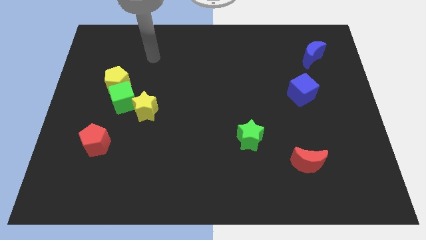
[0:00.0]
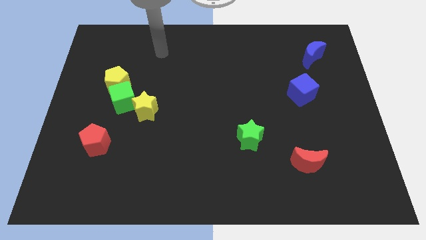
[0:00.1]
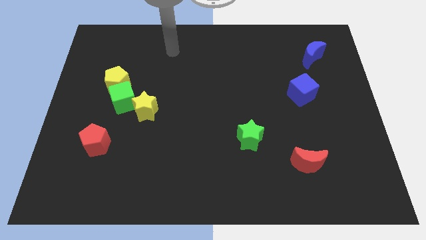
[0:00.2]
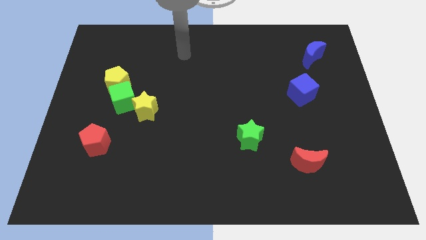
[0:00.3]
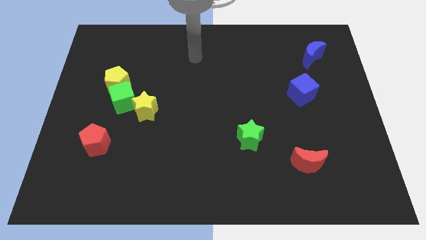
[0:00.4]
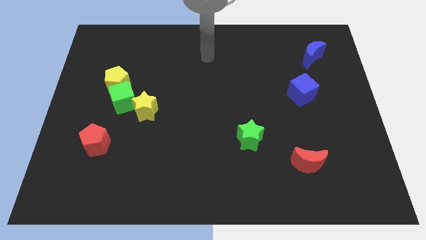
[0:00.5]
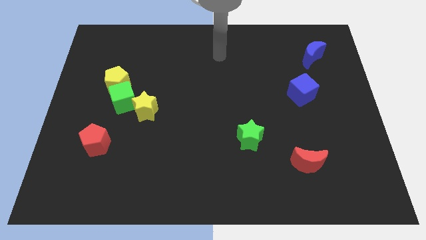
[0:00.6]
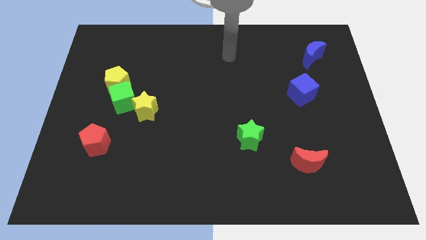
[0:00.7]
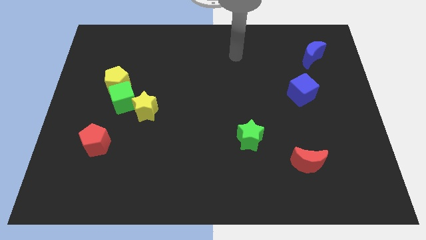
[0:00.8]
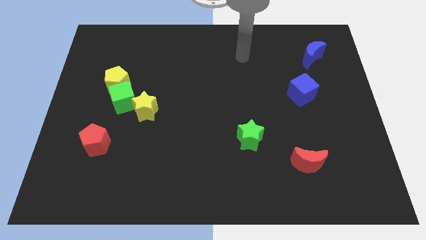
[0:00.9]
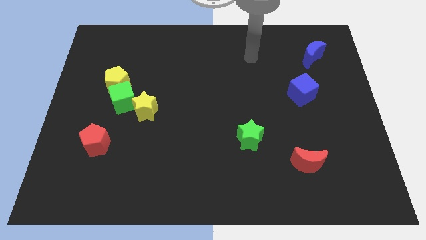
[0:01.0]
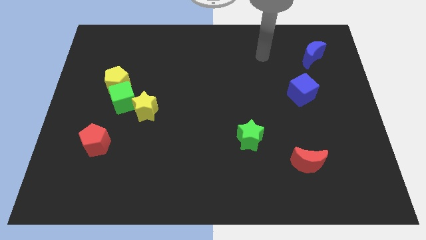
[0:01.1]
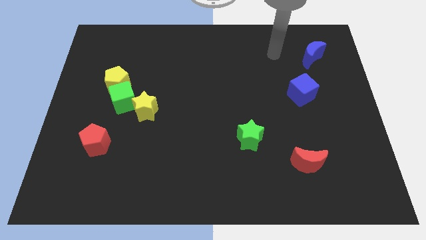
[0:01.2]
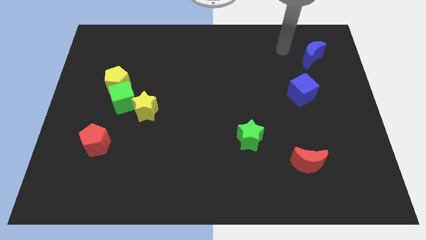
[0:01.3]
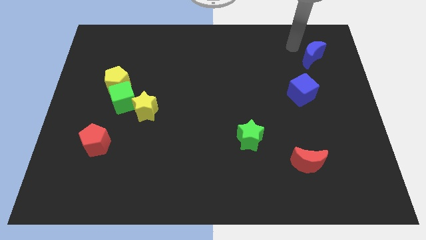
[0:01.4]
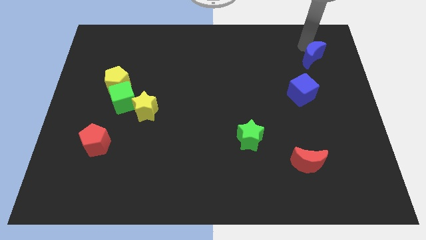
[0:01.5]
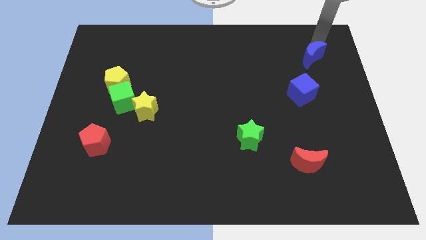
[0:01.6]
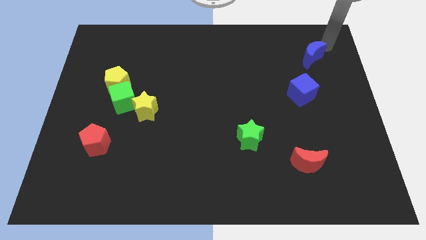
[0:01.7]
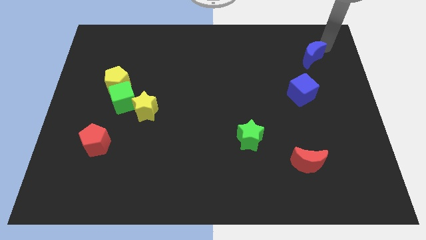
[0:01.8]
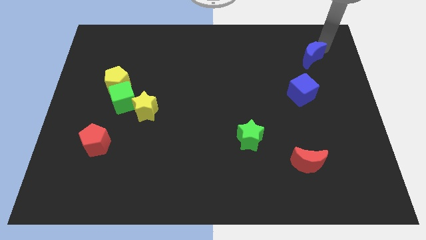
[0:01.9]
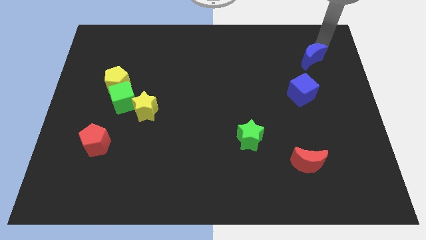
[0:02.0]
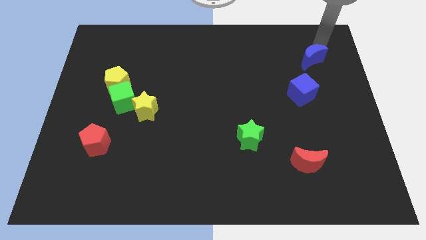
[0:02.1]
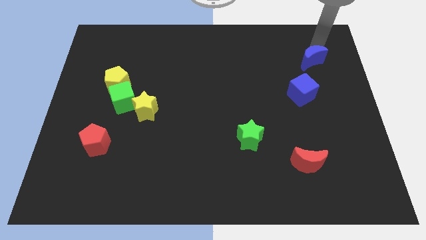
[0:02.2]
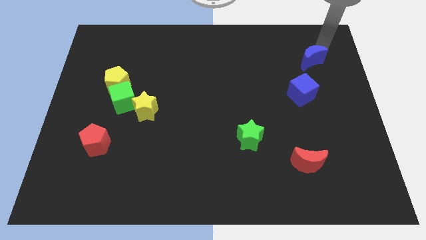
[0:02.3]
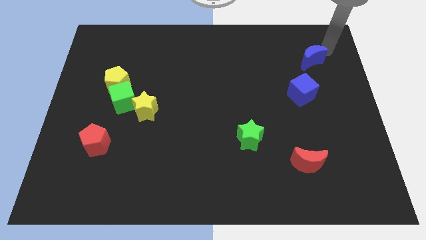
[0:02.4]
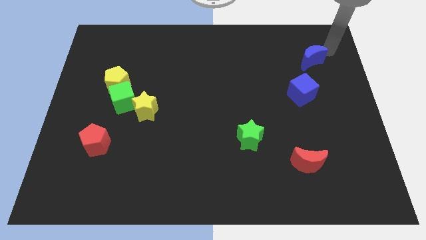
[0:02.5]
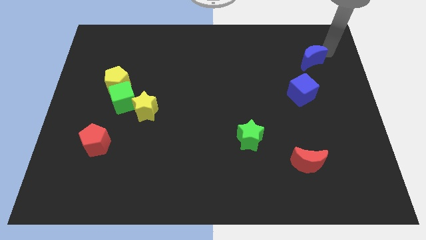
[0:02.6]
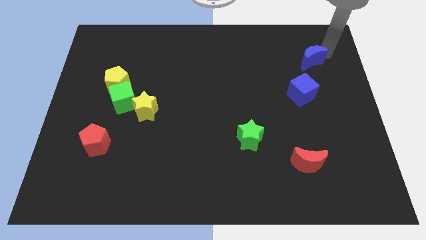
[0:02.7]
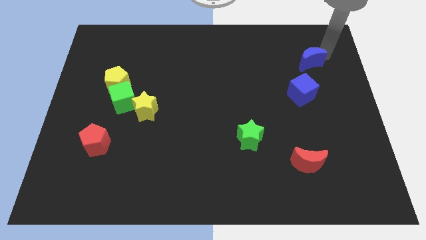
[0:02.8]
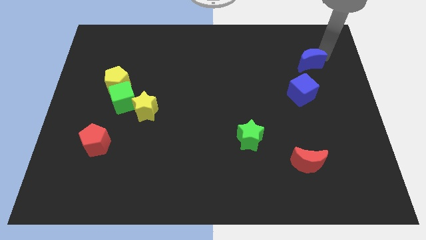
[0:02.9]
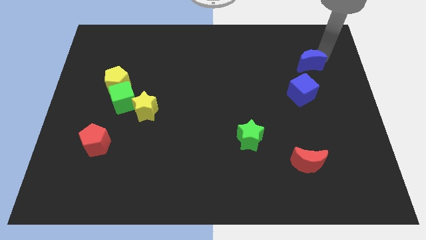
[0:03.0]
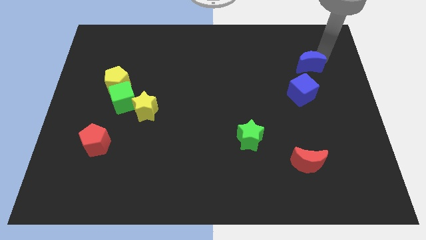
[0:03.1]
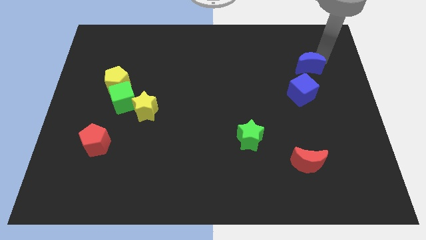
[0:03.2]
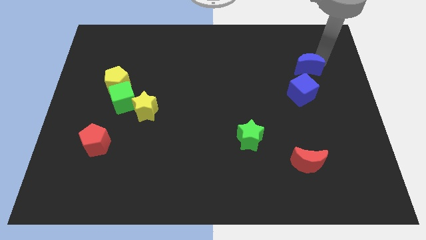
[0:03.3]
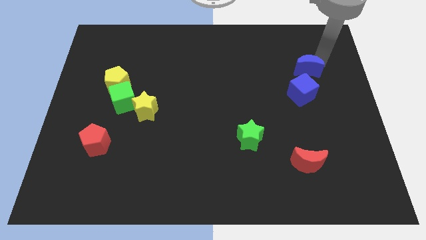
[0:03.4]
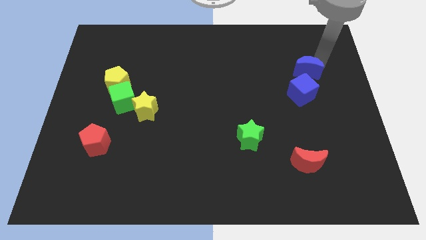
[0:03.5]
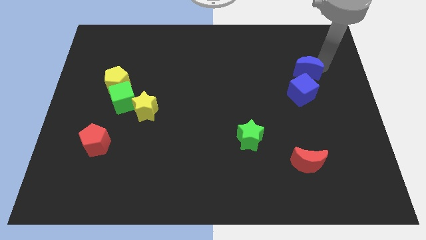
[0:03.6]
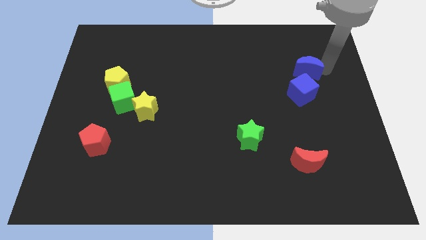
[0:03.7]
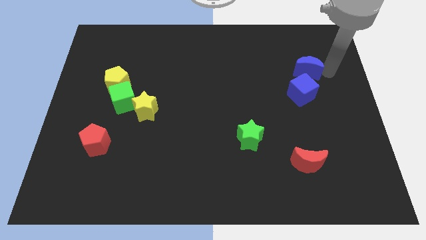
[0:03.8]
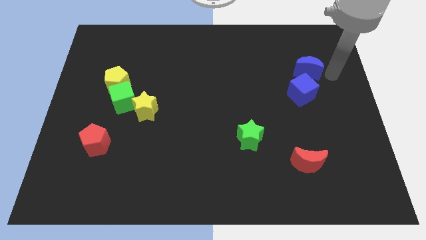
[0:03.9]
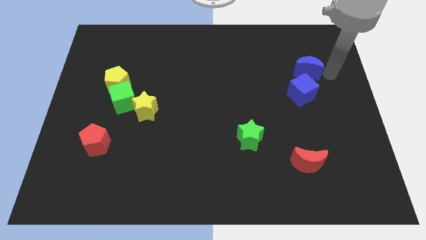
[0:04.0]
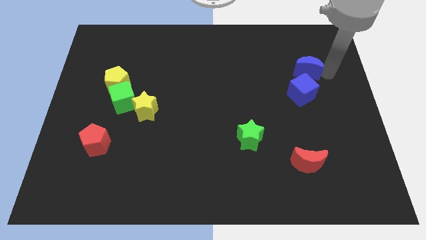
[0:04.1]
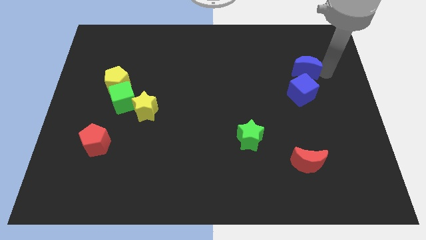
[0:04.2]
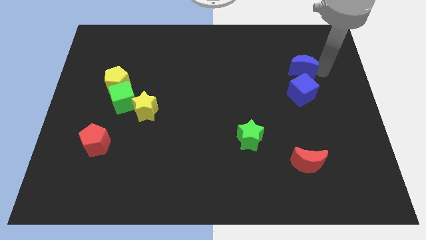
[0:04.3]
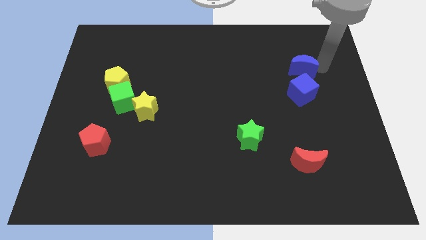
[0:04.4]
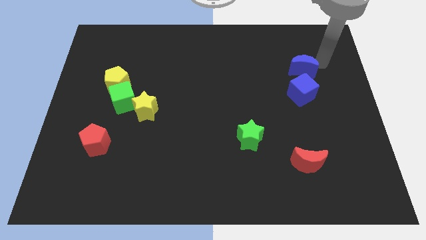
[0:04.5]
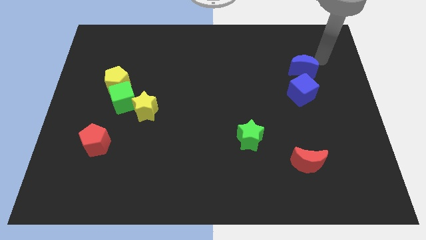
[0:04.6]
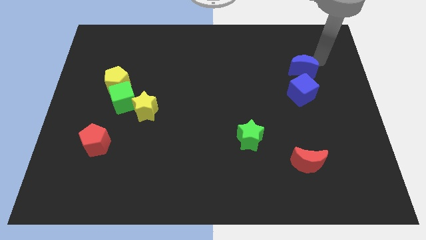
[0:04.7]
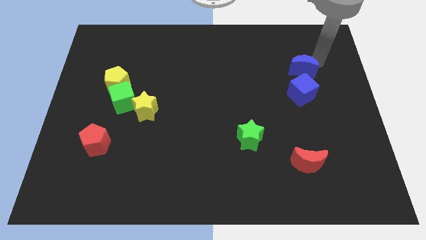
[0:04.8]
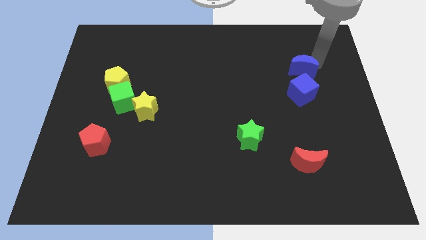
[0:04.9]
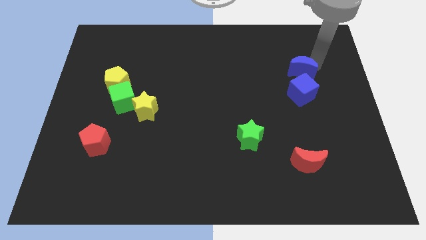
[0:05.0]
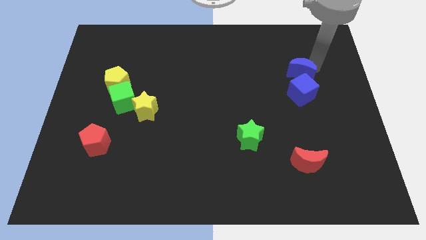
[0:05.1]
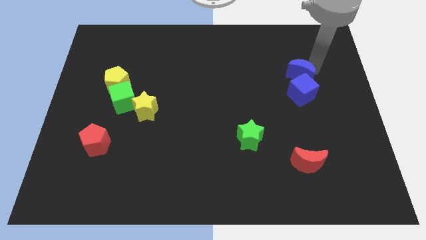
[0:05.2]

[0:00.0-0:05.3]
slightly push the blue moon down and left diagonally

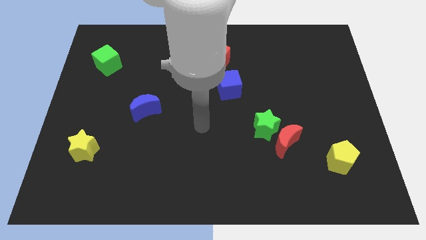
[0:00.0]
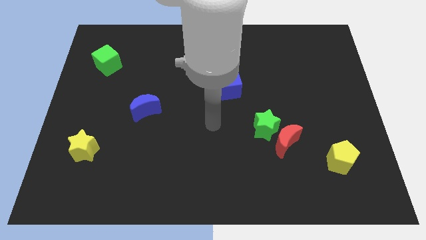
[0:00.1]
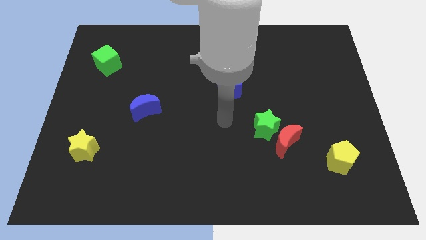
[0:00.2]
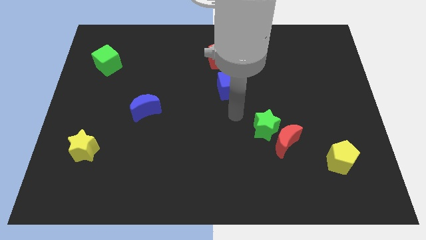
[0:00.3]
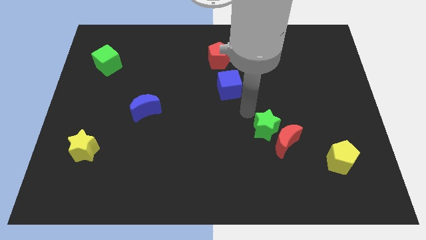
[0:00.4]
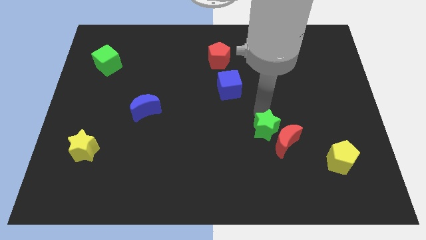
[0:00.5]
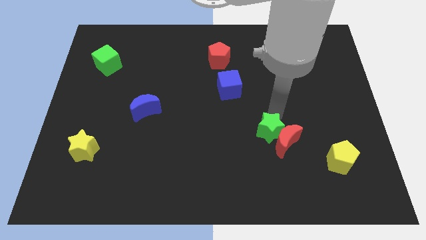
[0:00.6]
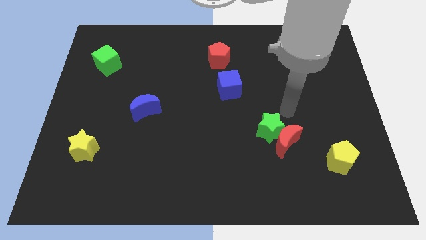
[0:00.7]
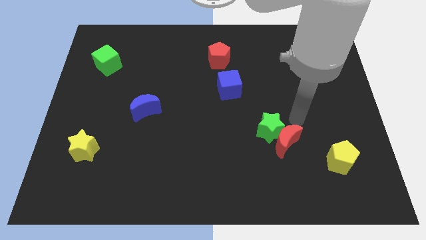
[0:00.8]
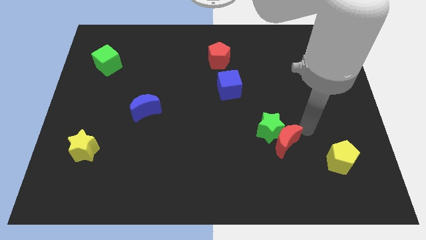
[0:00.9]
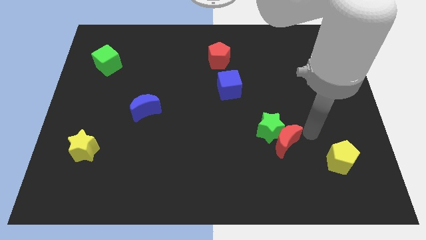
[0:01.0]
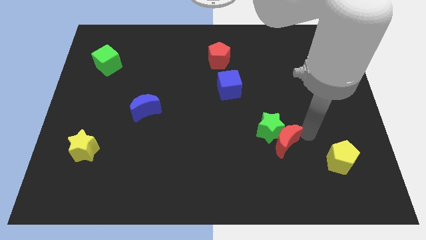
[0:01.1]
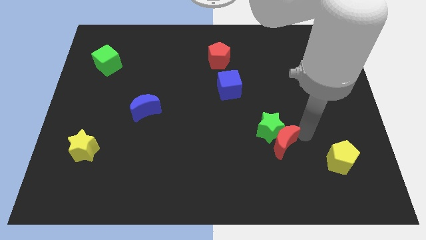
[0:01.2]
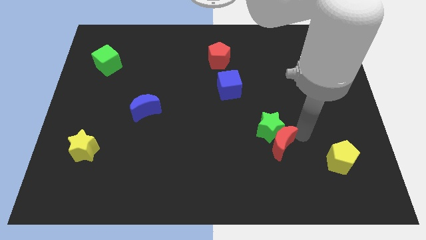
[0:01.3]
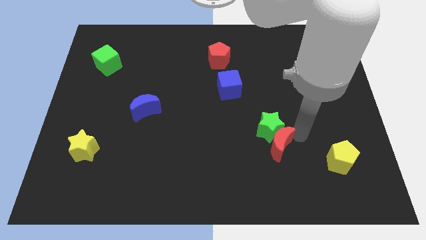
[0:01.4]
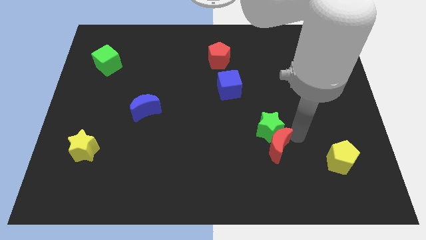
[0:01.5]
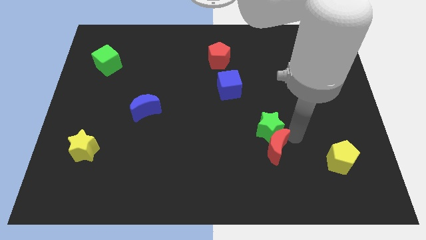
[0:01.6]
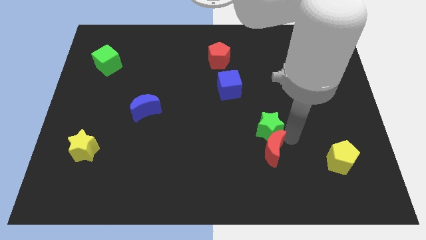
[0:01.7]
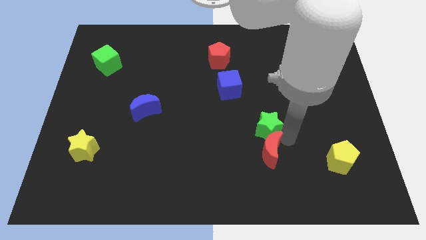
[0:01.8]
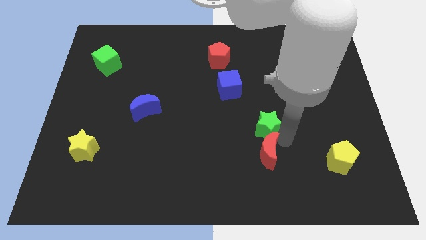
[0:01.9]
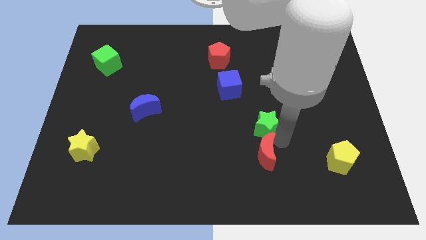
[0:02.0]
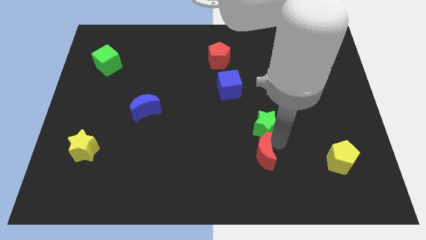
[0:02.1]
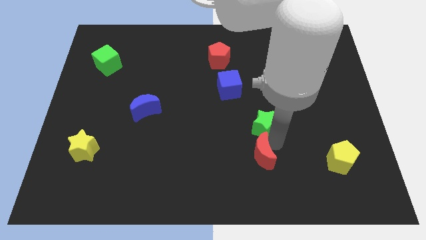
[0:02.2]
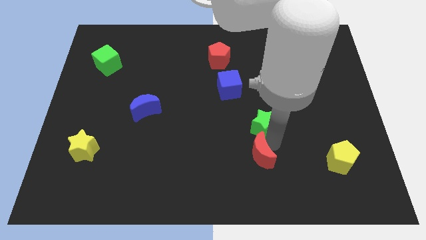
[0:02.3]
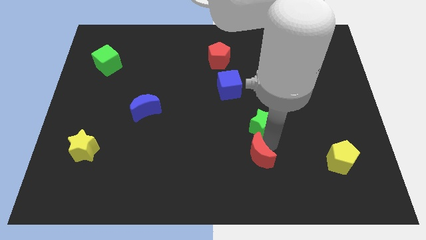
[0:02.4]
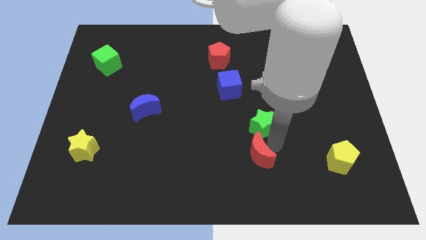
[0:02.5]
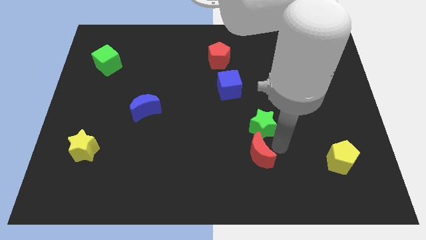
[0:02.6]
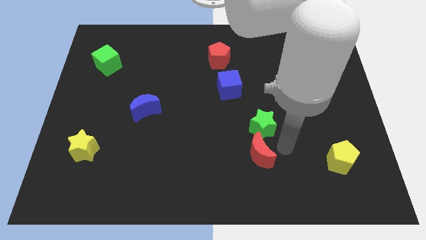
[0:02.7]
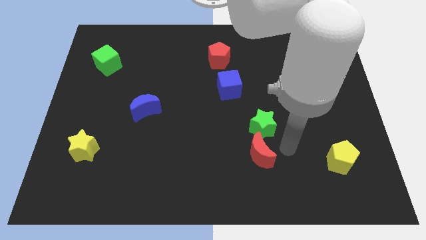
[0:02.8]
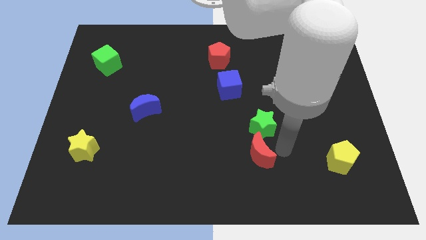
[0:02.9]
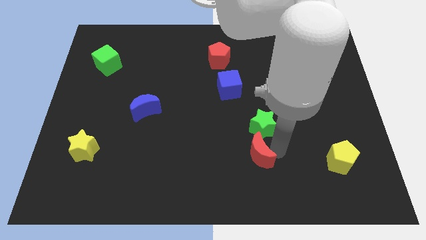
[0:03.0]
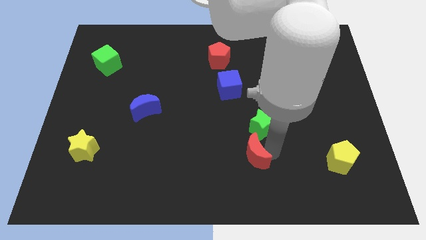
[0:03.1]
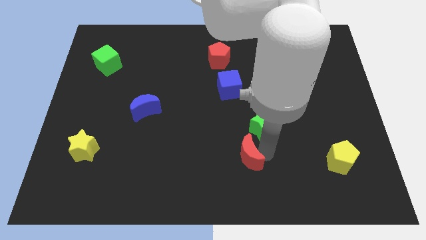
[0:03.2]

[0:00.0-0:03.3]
move the red moon a bit to the left
